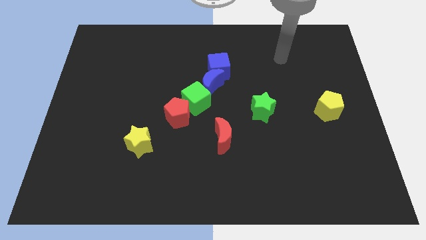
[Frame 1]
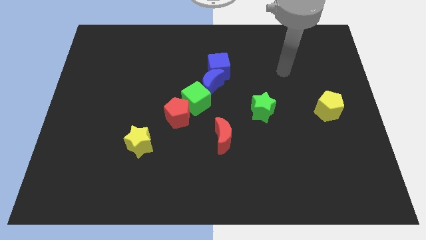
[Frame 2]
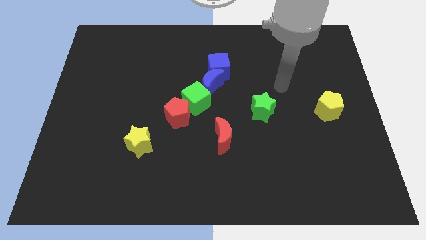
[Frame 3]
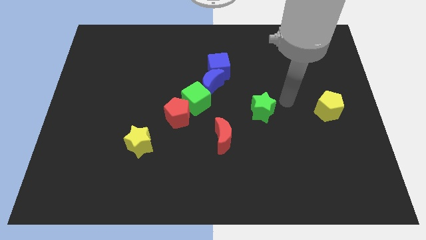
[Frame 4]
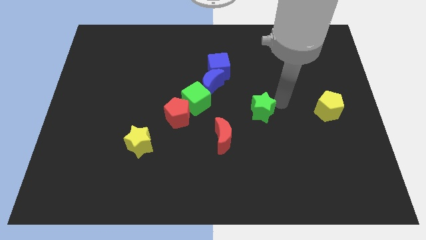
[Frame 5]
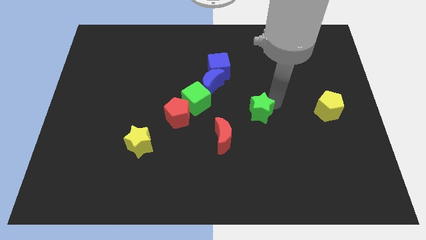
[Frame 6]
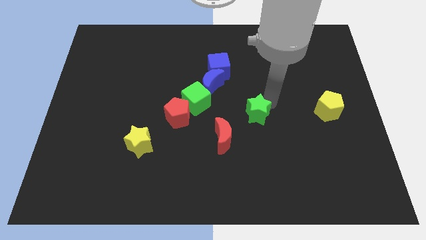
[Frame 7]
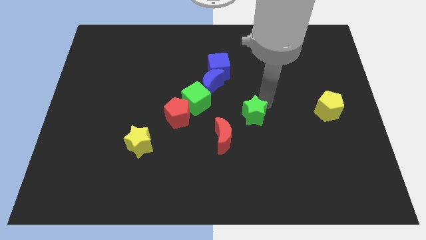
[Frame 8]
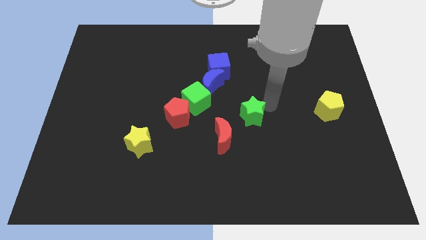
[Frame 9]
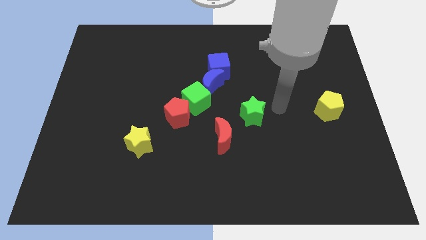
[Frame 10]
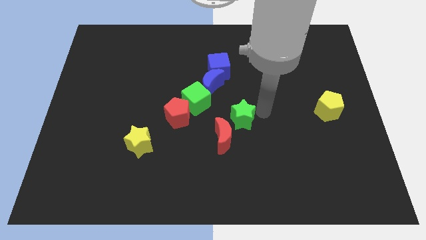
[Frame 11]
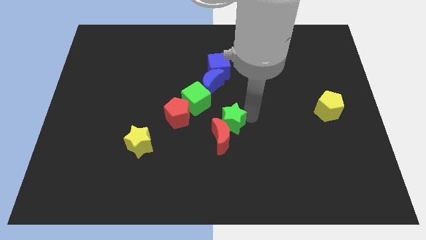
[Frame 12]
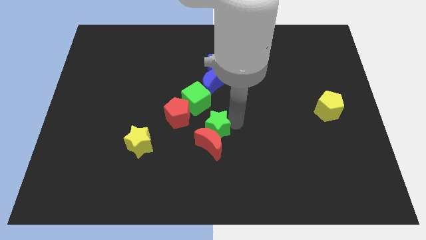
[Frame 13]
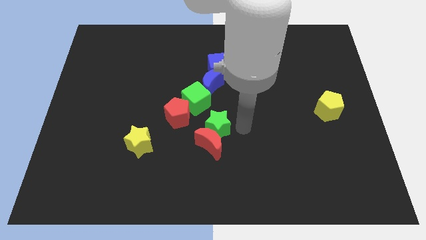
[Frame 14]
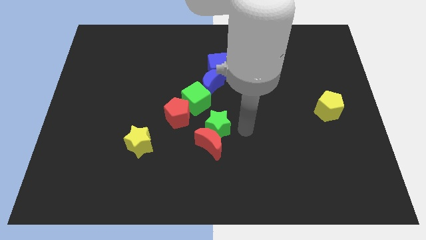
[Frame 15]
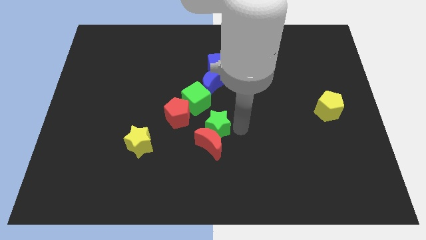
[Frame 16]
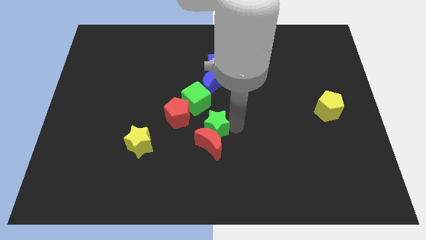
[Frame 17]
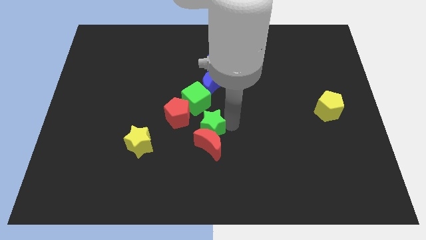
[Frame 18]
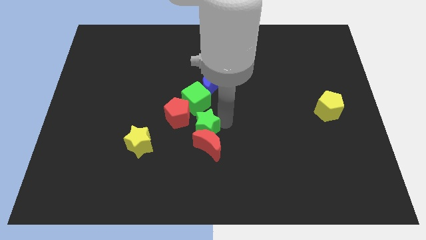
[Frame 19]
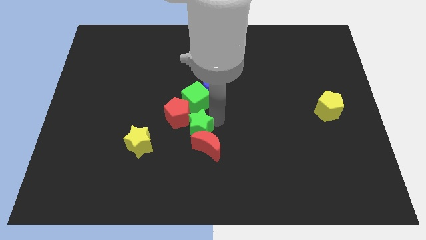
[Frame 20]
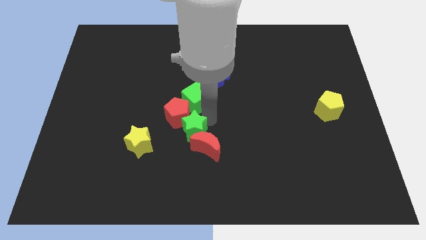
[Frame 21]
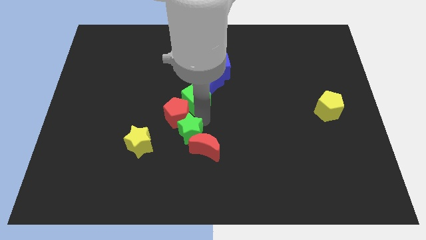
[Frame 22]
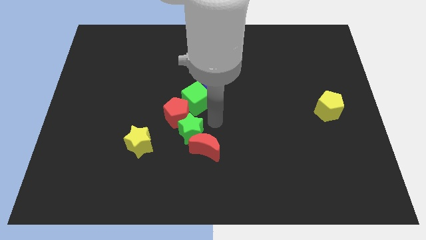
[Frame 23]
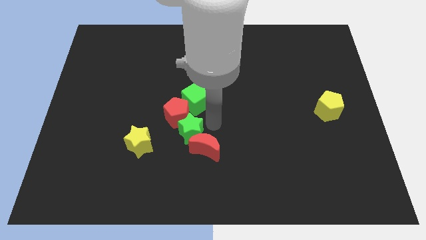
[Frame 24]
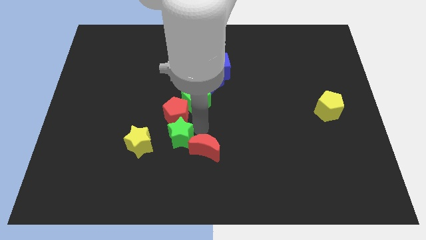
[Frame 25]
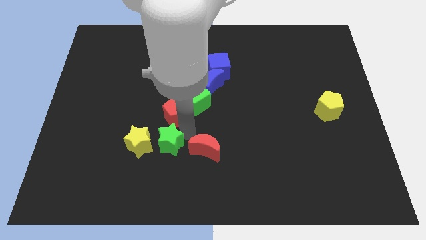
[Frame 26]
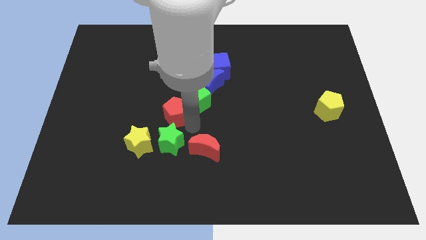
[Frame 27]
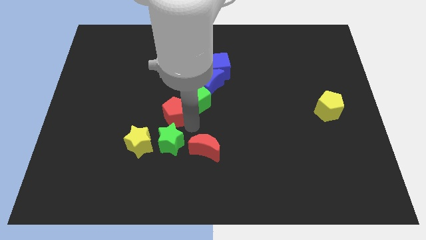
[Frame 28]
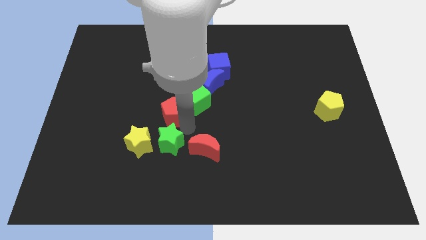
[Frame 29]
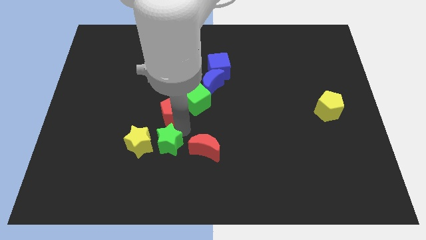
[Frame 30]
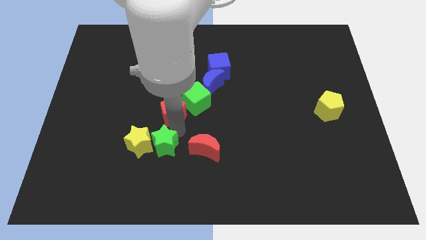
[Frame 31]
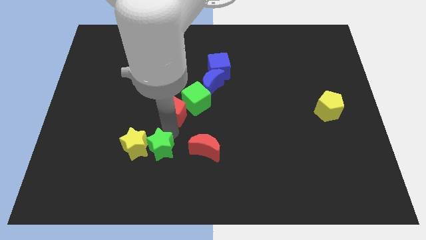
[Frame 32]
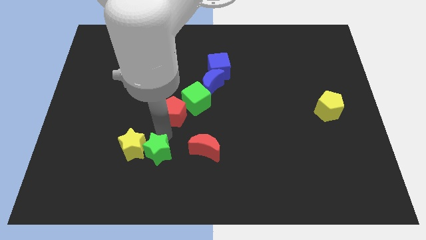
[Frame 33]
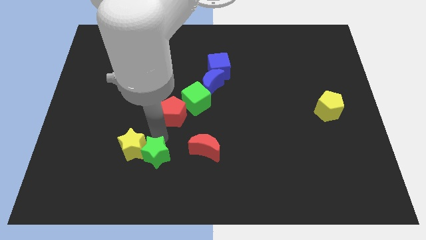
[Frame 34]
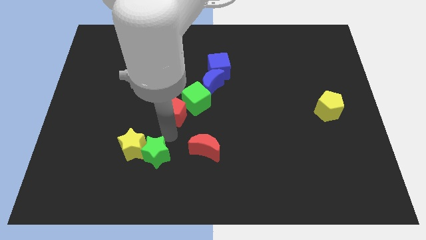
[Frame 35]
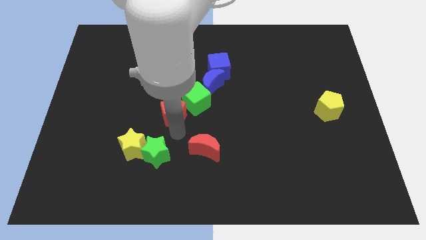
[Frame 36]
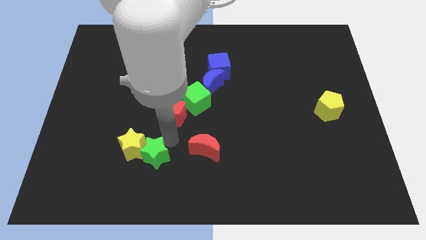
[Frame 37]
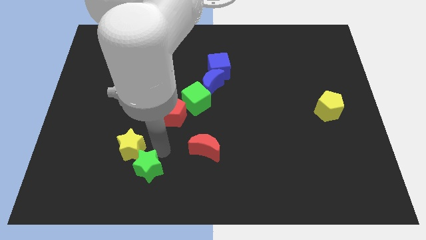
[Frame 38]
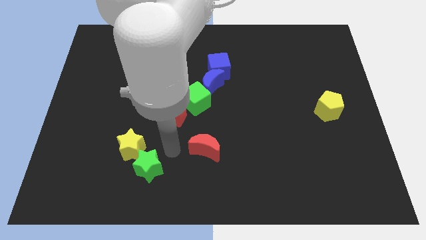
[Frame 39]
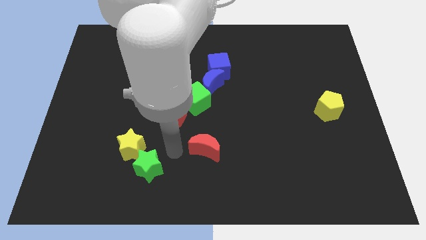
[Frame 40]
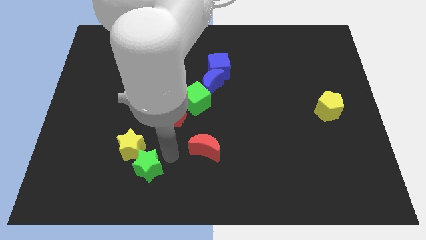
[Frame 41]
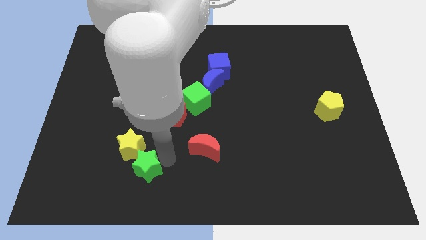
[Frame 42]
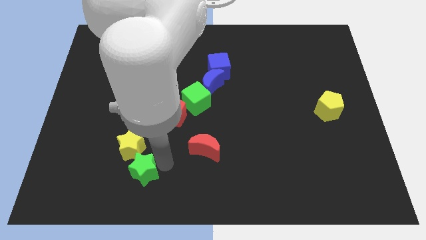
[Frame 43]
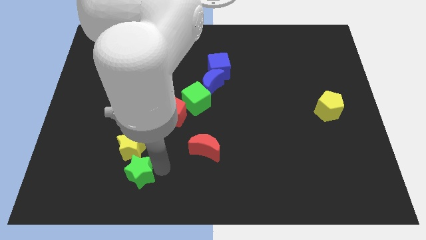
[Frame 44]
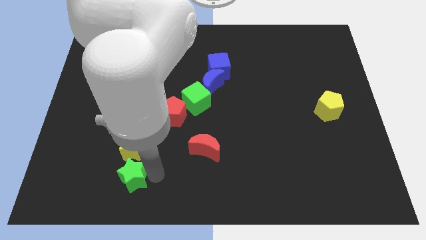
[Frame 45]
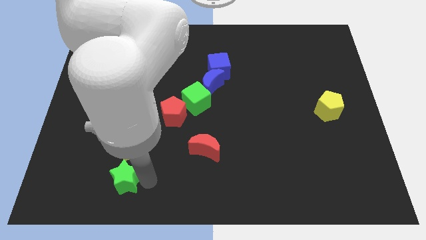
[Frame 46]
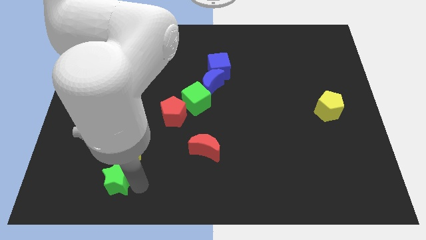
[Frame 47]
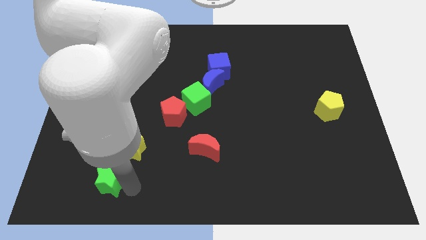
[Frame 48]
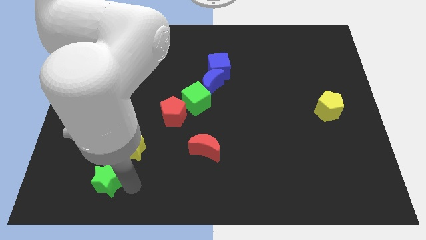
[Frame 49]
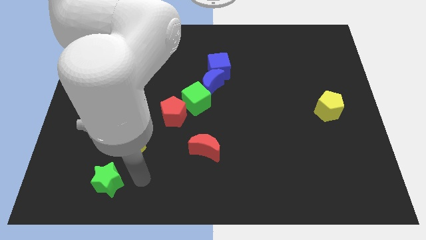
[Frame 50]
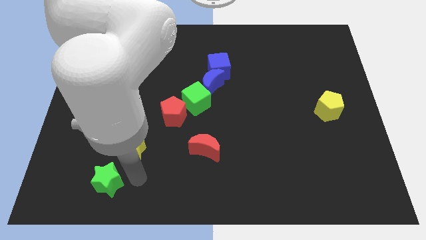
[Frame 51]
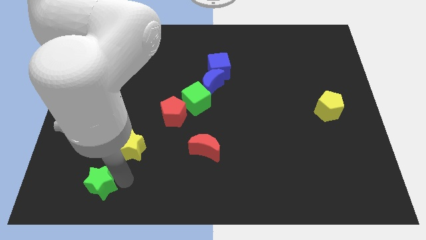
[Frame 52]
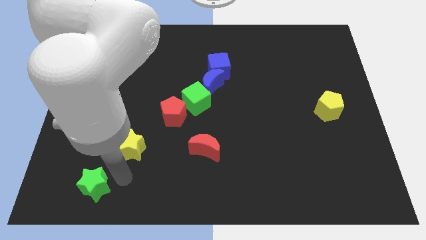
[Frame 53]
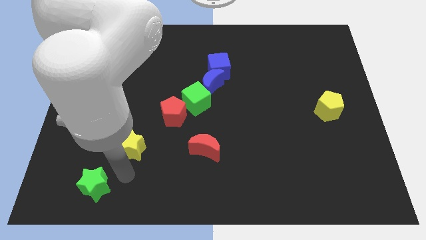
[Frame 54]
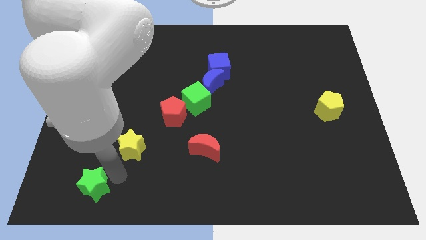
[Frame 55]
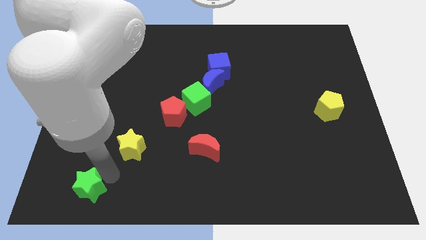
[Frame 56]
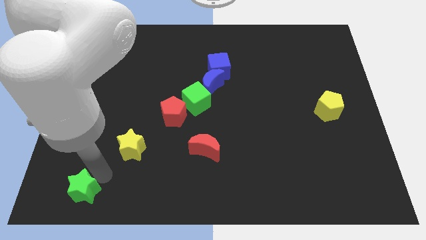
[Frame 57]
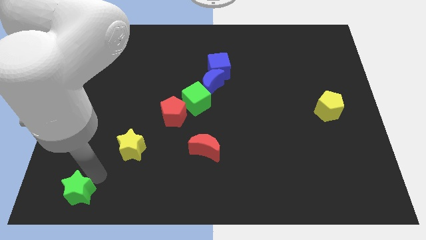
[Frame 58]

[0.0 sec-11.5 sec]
put the green star to the bottom left of the board

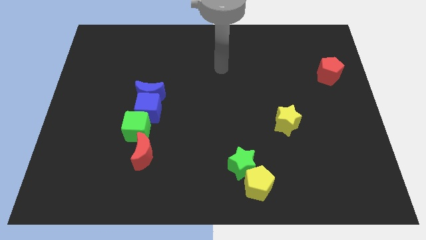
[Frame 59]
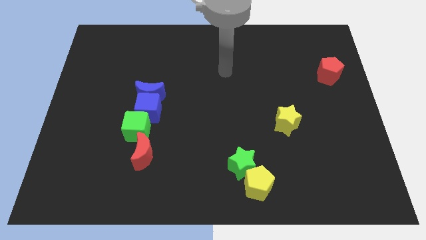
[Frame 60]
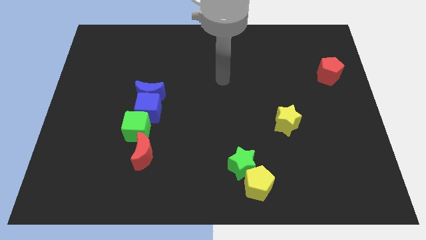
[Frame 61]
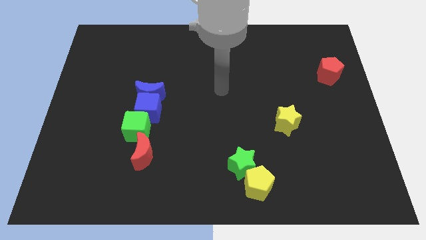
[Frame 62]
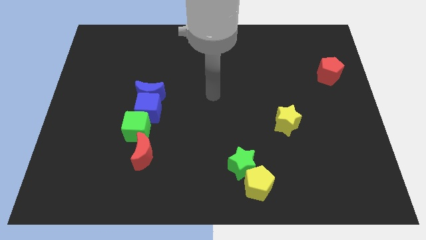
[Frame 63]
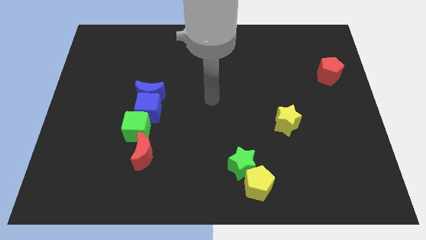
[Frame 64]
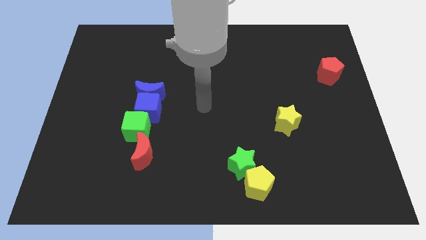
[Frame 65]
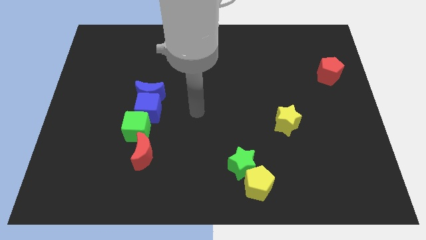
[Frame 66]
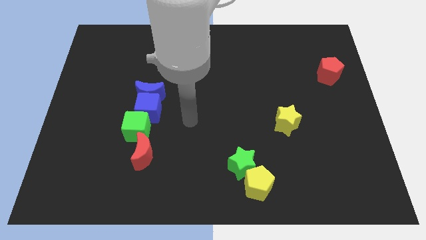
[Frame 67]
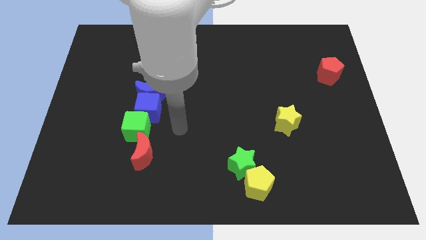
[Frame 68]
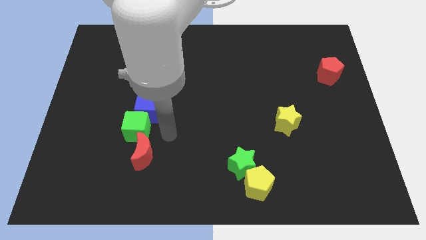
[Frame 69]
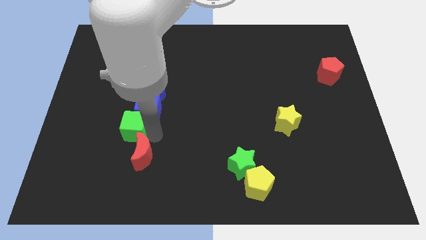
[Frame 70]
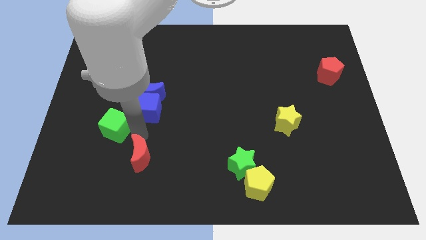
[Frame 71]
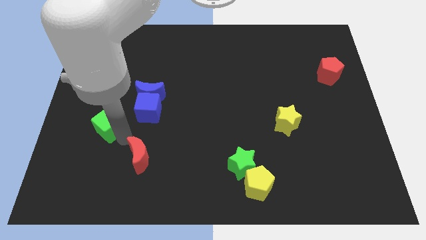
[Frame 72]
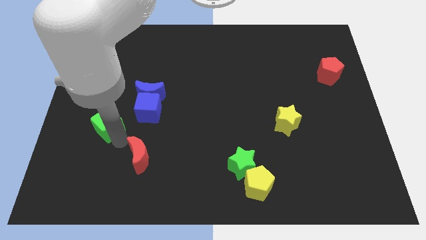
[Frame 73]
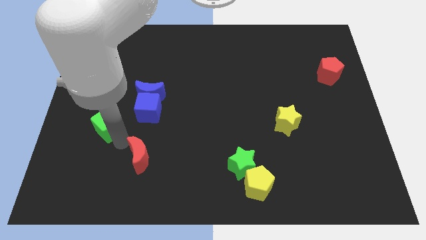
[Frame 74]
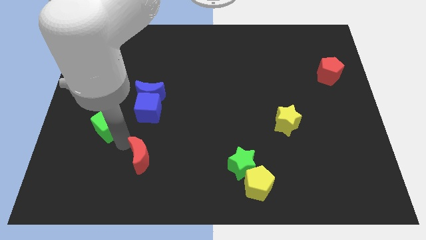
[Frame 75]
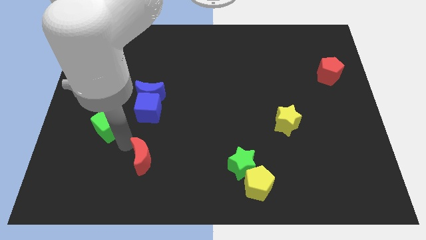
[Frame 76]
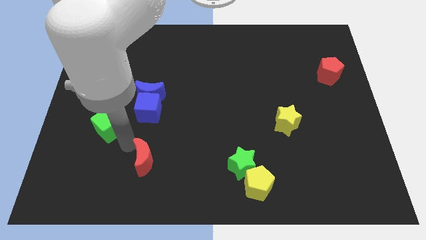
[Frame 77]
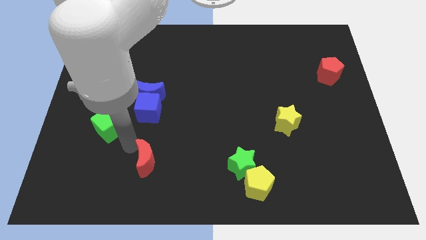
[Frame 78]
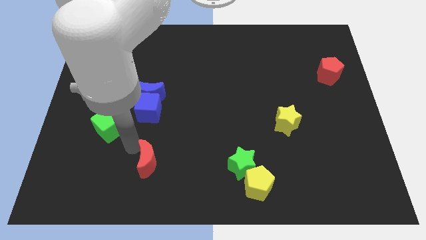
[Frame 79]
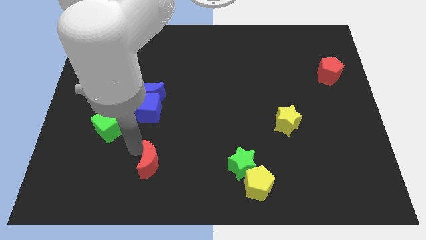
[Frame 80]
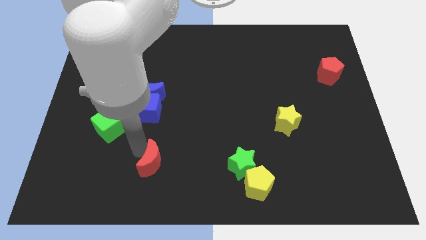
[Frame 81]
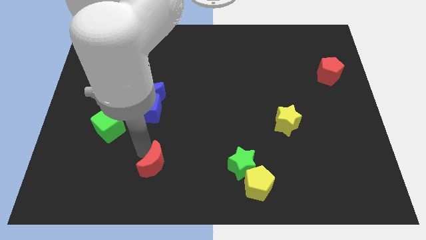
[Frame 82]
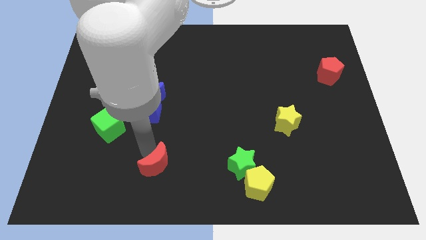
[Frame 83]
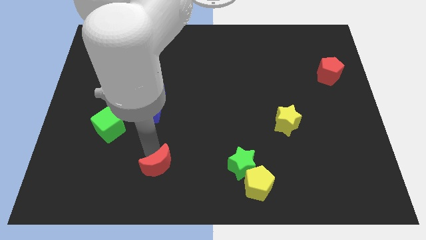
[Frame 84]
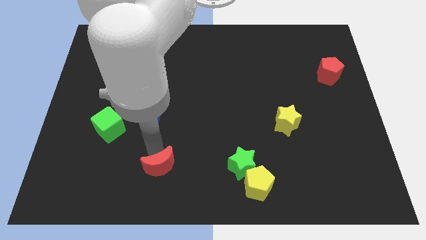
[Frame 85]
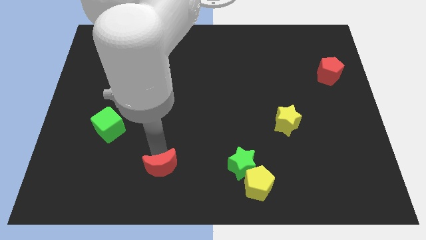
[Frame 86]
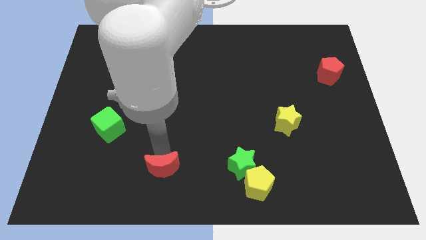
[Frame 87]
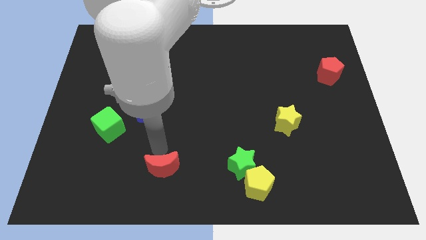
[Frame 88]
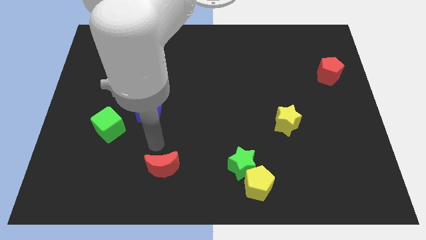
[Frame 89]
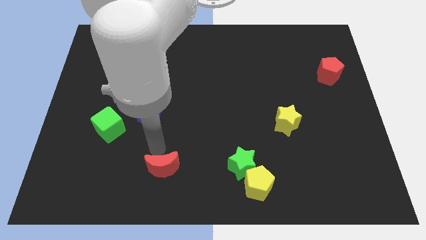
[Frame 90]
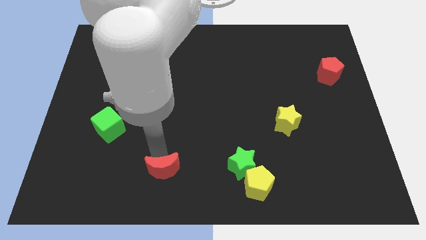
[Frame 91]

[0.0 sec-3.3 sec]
put the red moon to the bottom
